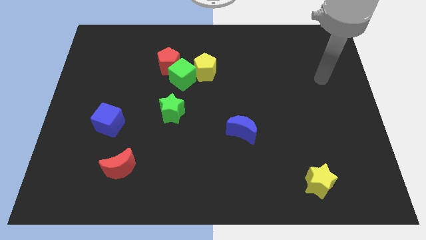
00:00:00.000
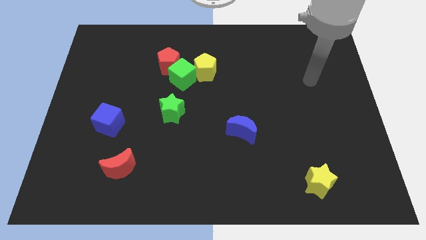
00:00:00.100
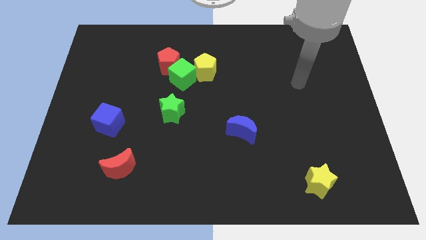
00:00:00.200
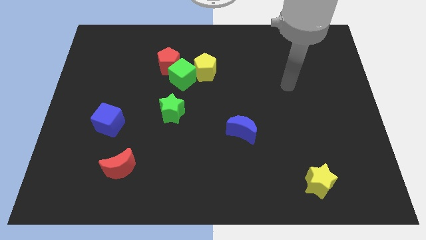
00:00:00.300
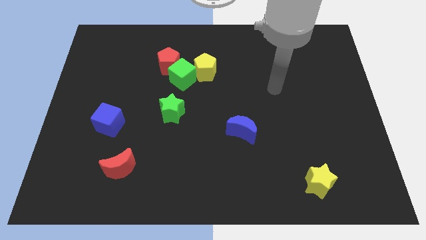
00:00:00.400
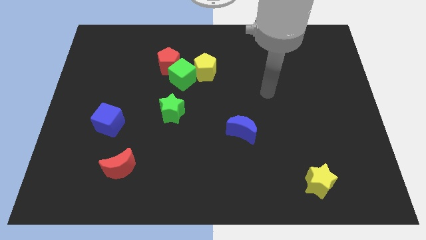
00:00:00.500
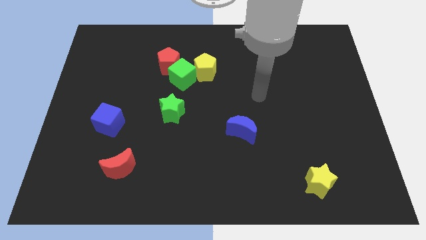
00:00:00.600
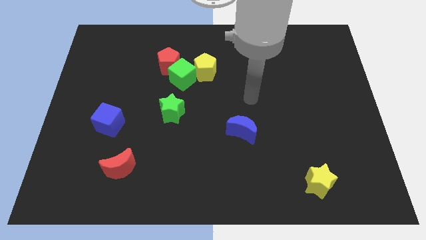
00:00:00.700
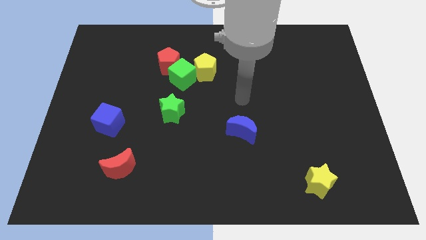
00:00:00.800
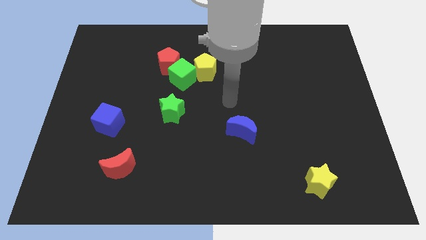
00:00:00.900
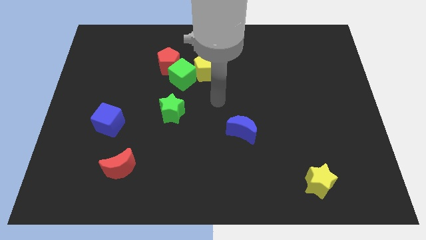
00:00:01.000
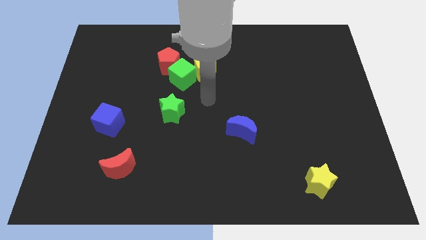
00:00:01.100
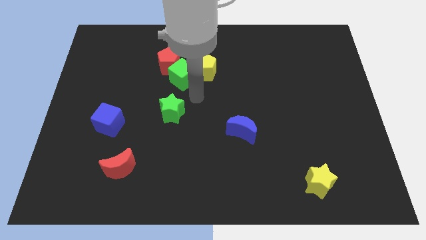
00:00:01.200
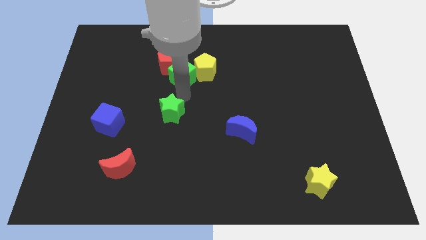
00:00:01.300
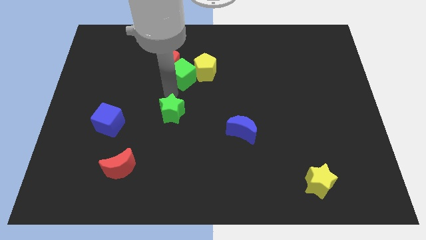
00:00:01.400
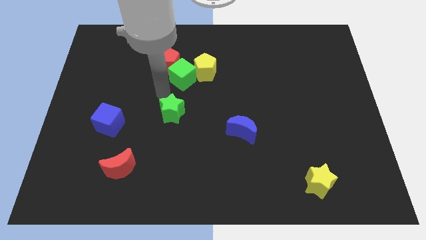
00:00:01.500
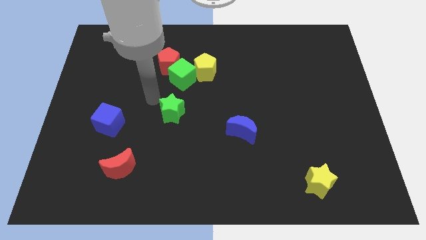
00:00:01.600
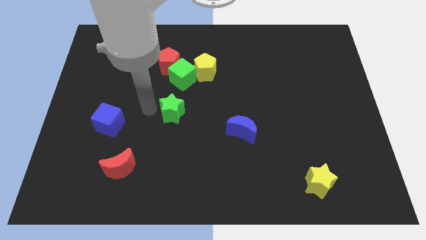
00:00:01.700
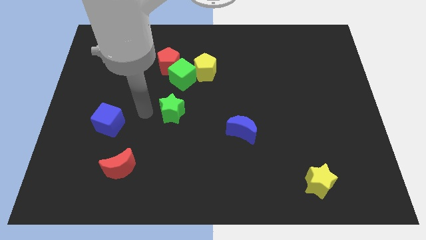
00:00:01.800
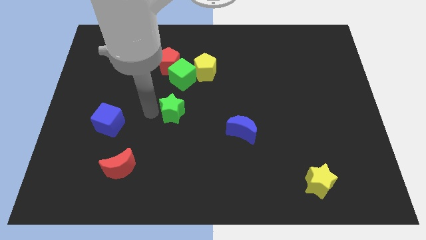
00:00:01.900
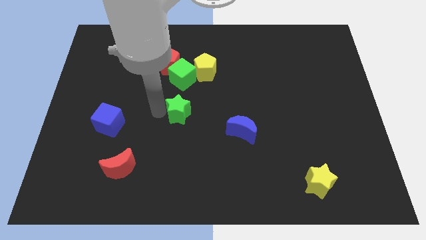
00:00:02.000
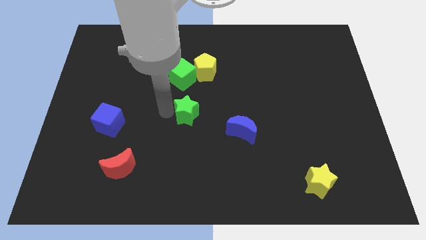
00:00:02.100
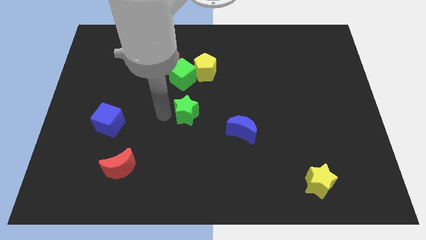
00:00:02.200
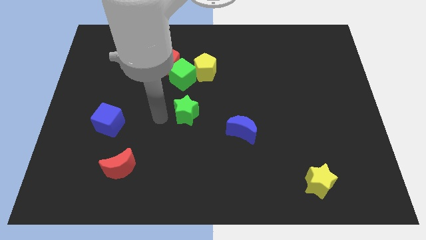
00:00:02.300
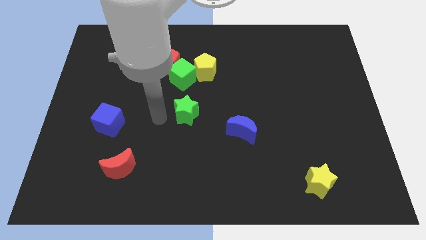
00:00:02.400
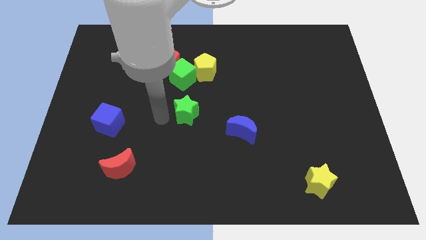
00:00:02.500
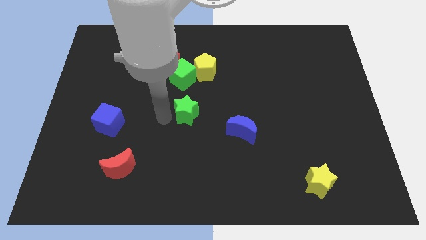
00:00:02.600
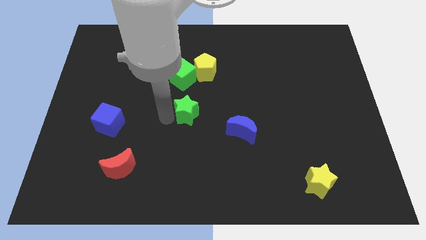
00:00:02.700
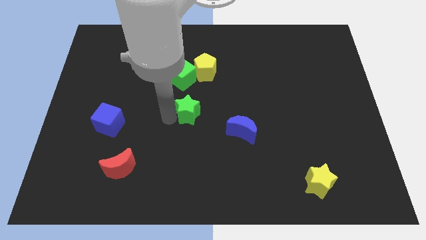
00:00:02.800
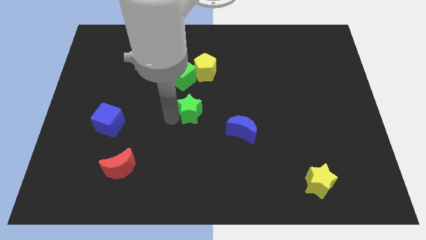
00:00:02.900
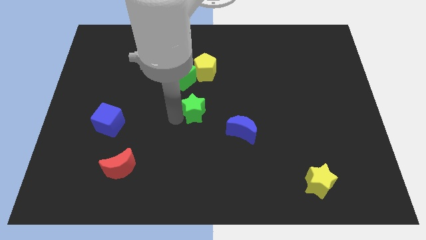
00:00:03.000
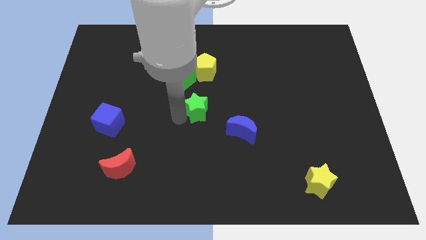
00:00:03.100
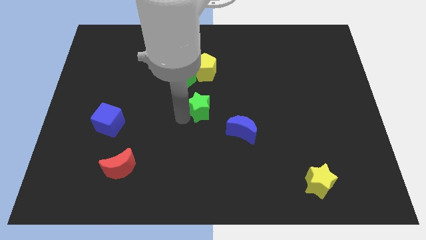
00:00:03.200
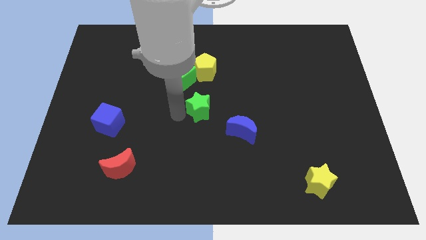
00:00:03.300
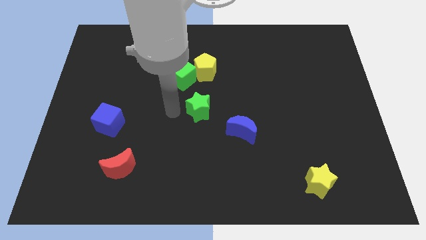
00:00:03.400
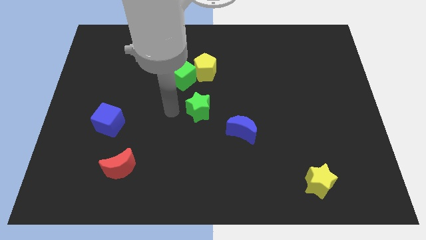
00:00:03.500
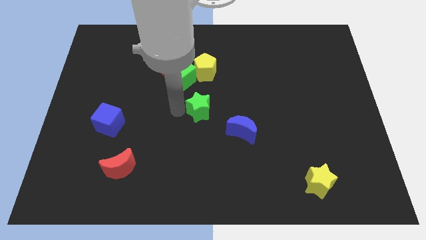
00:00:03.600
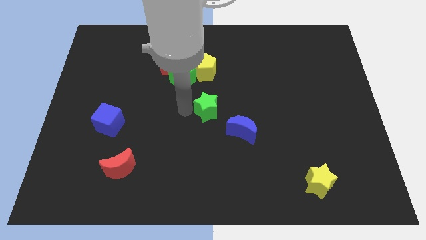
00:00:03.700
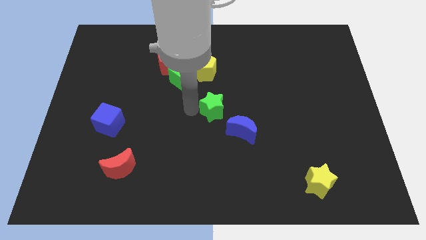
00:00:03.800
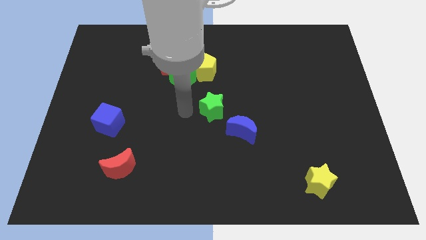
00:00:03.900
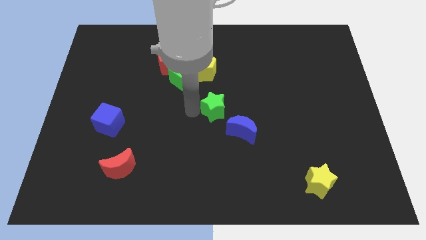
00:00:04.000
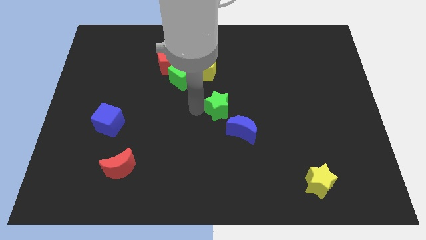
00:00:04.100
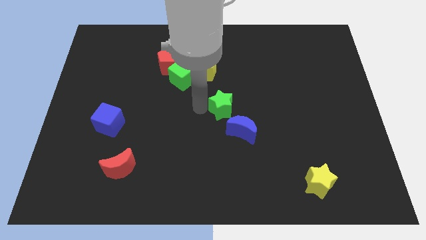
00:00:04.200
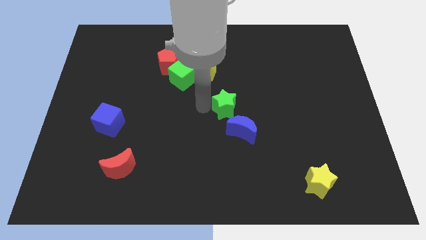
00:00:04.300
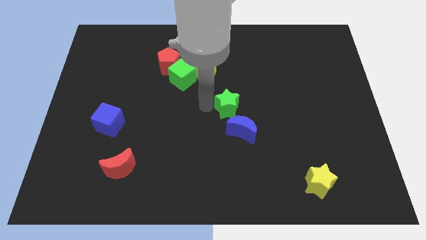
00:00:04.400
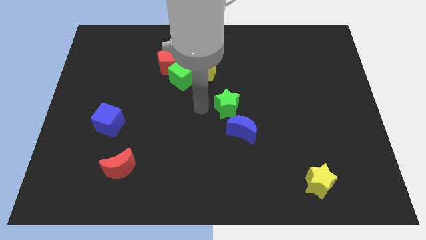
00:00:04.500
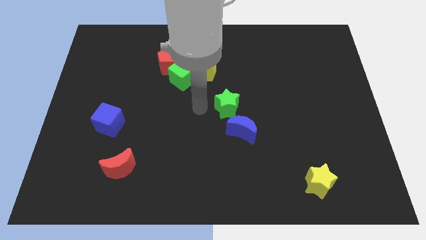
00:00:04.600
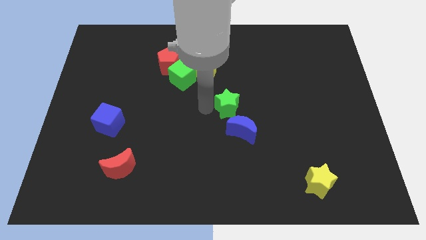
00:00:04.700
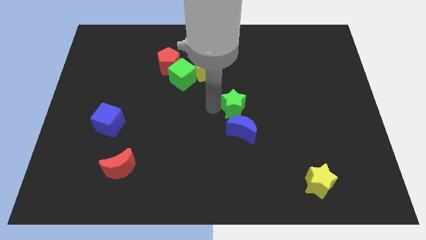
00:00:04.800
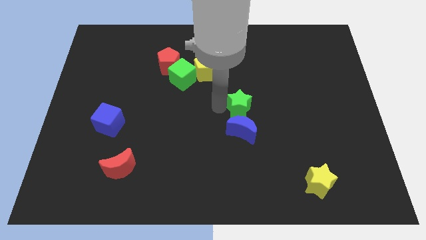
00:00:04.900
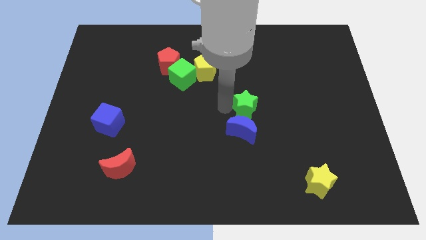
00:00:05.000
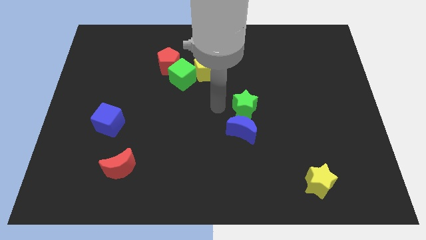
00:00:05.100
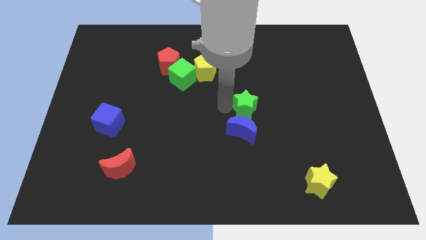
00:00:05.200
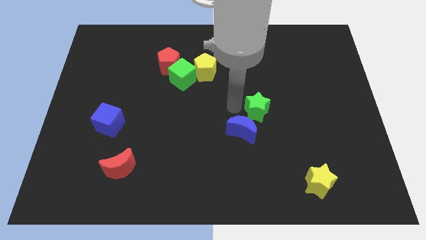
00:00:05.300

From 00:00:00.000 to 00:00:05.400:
slide the green star to the right

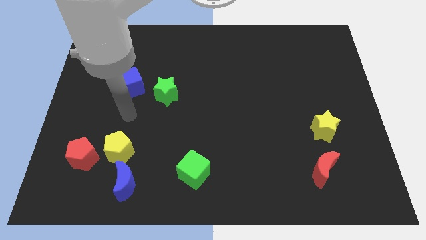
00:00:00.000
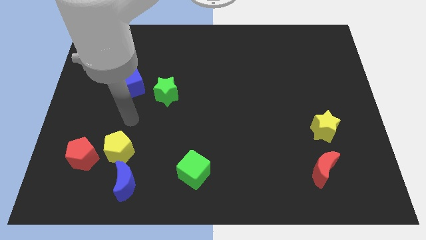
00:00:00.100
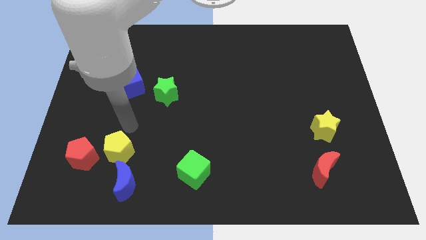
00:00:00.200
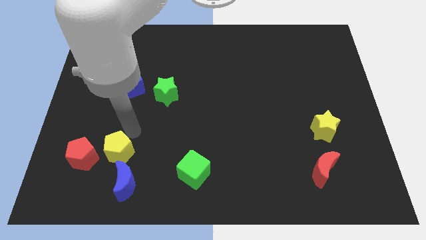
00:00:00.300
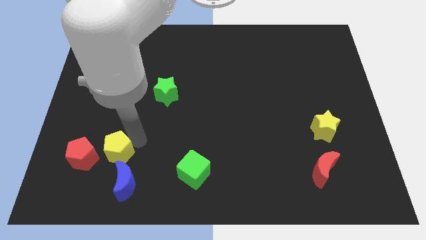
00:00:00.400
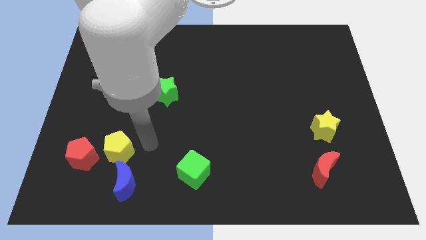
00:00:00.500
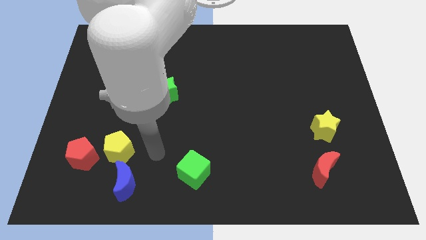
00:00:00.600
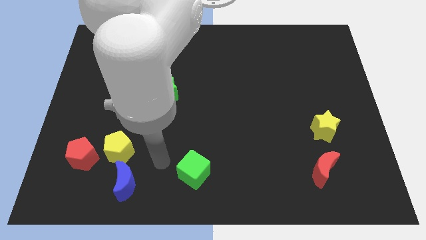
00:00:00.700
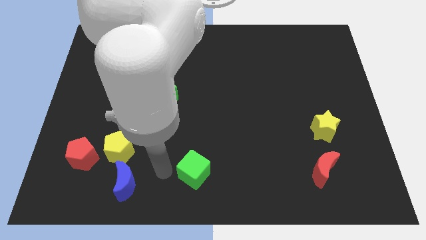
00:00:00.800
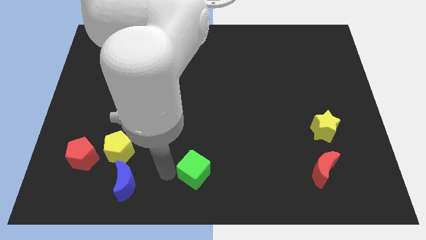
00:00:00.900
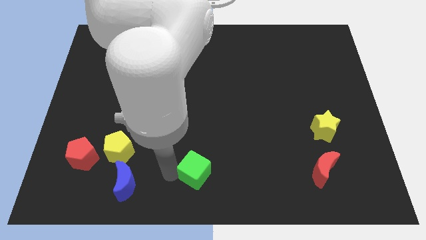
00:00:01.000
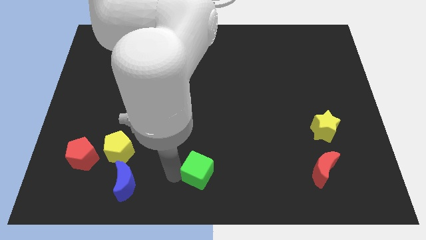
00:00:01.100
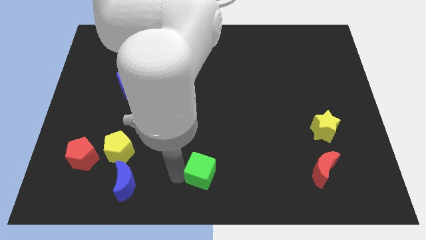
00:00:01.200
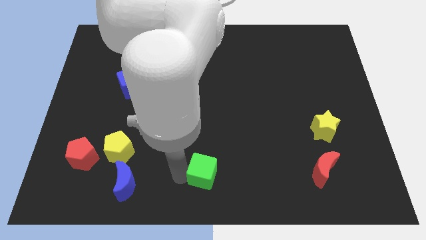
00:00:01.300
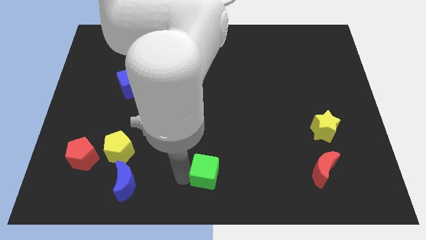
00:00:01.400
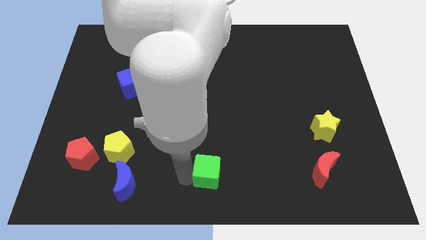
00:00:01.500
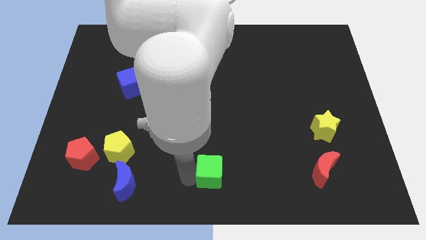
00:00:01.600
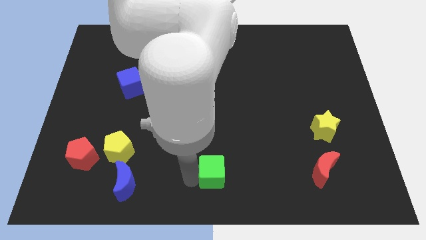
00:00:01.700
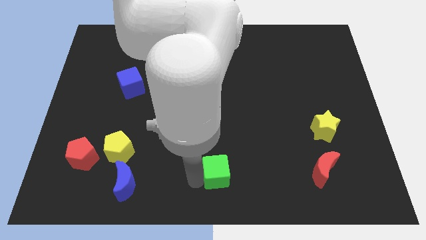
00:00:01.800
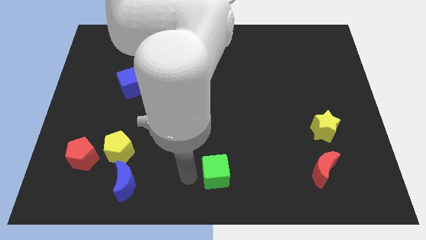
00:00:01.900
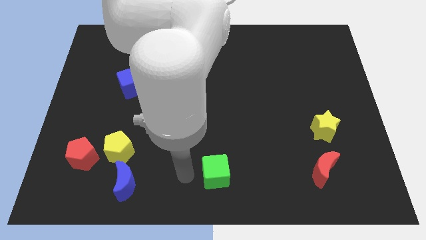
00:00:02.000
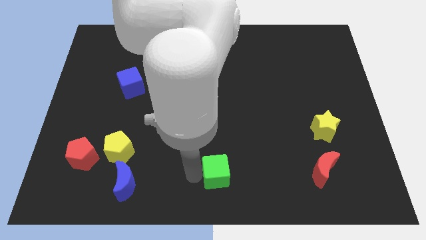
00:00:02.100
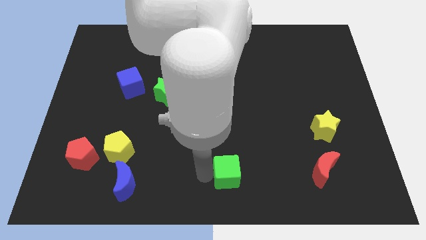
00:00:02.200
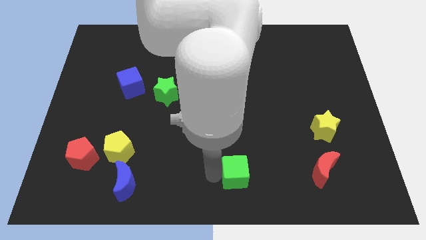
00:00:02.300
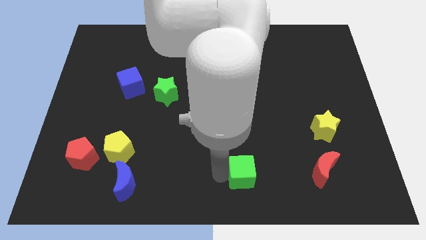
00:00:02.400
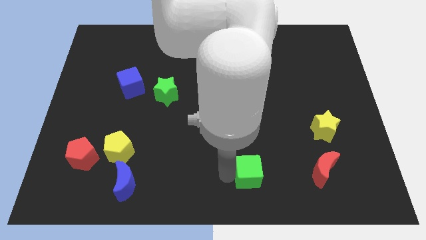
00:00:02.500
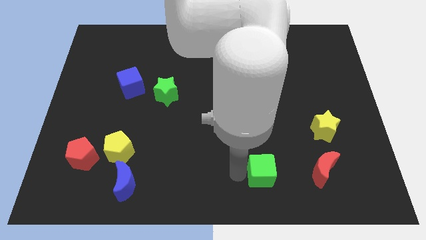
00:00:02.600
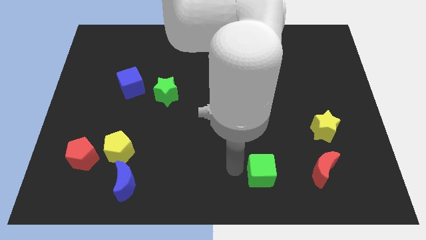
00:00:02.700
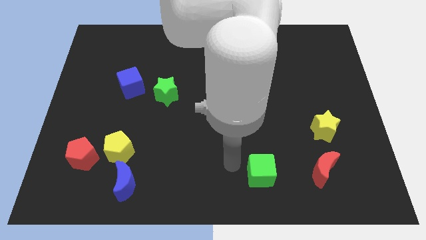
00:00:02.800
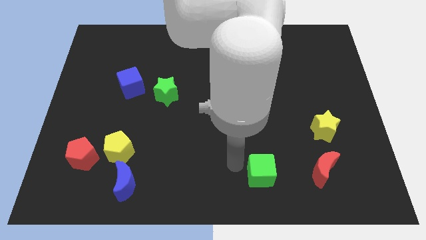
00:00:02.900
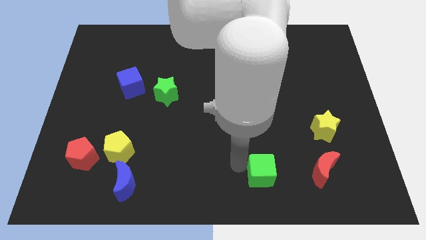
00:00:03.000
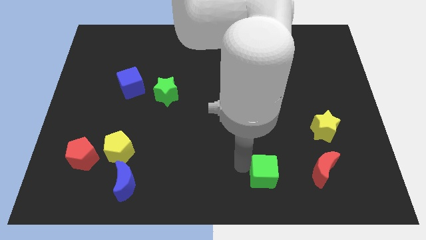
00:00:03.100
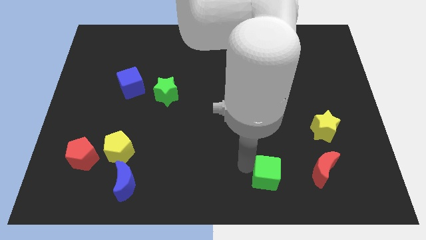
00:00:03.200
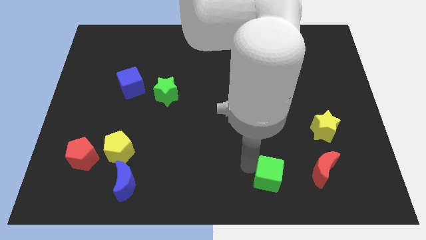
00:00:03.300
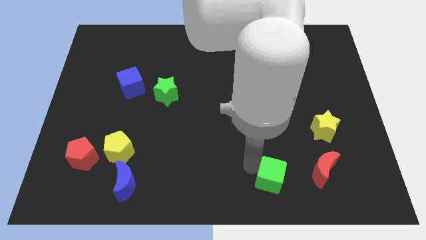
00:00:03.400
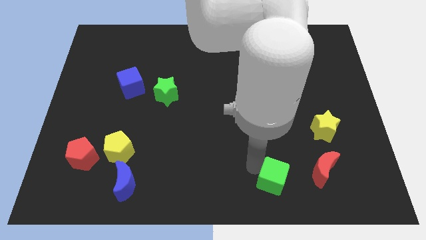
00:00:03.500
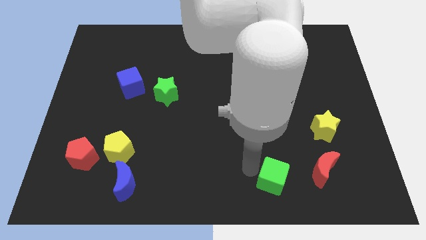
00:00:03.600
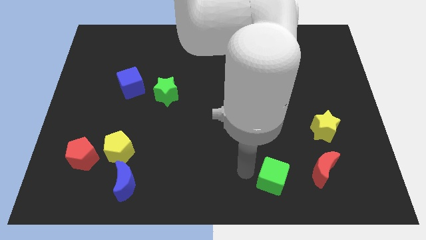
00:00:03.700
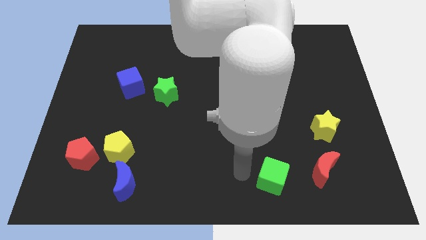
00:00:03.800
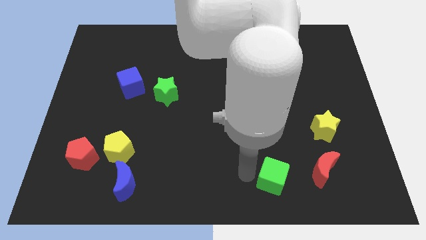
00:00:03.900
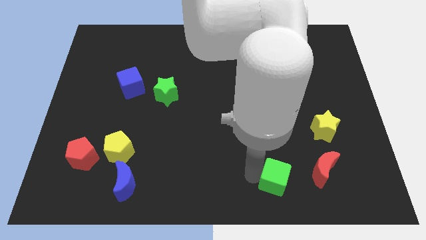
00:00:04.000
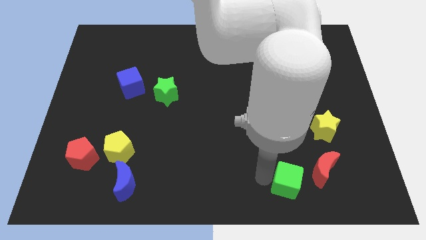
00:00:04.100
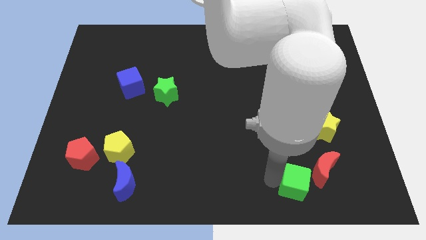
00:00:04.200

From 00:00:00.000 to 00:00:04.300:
push the green cube to the right
